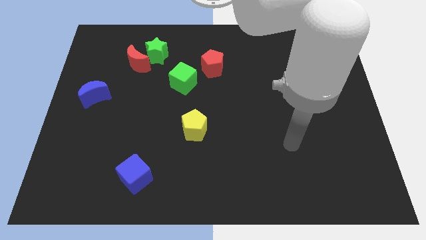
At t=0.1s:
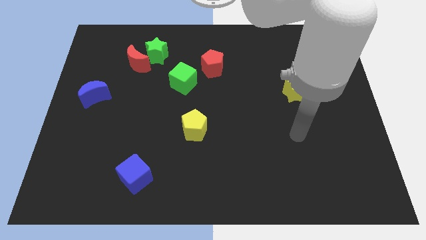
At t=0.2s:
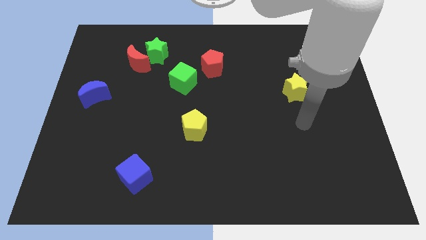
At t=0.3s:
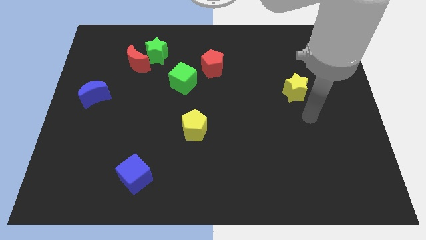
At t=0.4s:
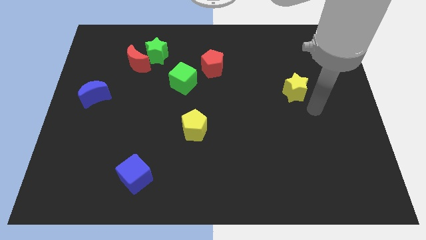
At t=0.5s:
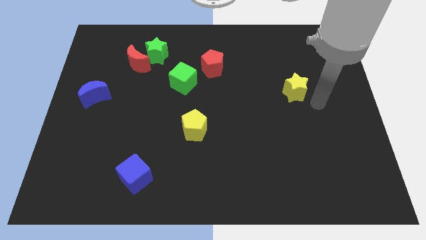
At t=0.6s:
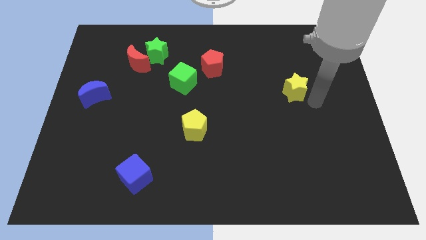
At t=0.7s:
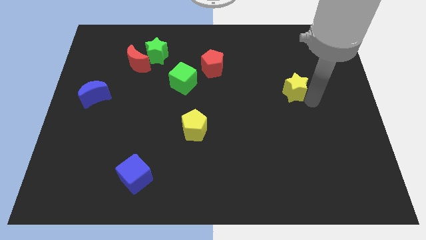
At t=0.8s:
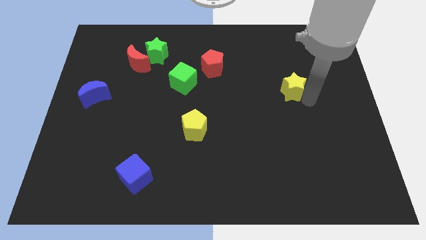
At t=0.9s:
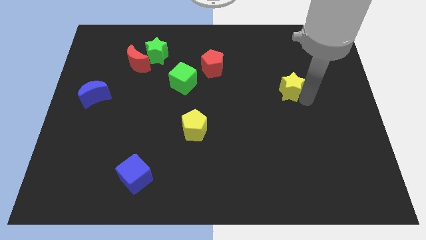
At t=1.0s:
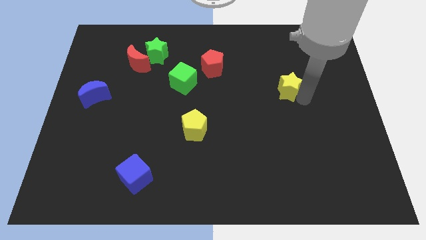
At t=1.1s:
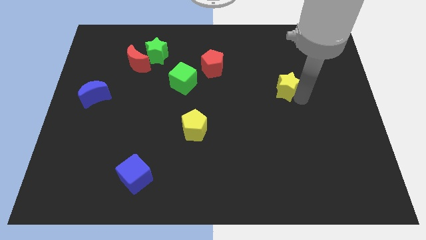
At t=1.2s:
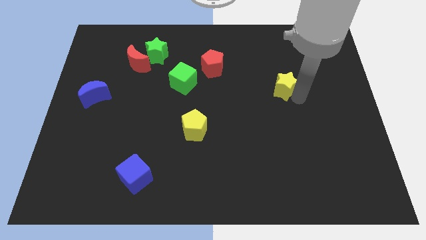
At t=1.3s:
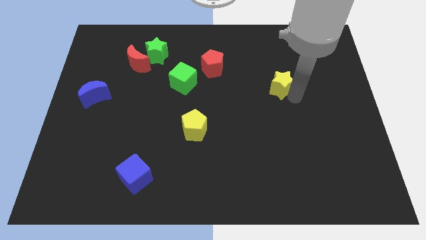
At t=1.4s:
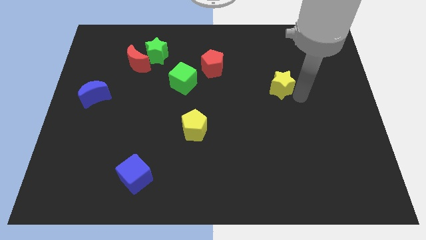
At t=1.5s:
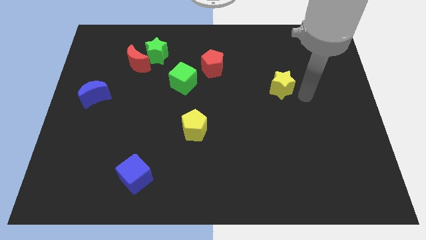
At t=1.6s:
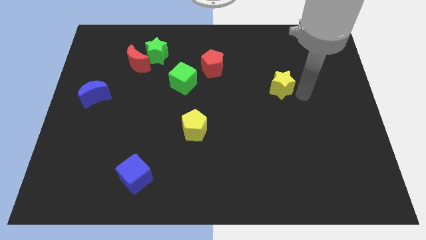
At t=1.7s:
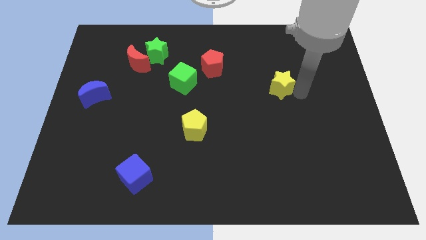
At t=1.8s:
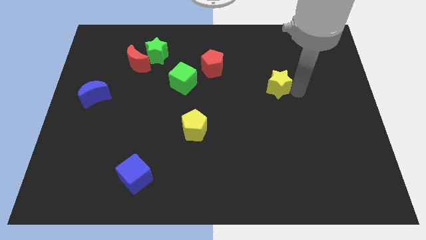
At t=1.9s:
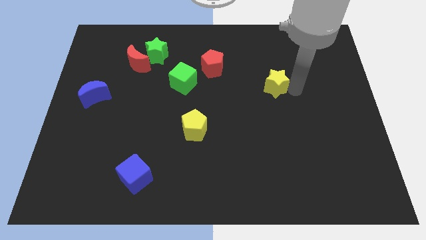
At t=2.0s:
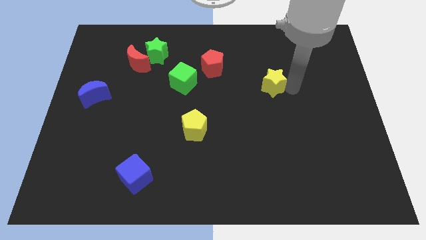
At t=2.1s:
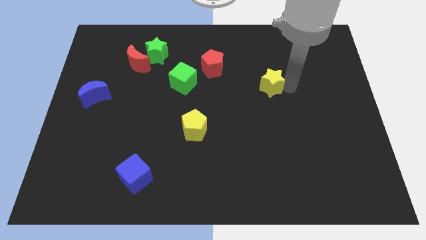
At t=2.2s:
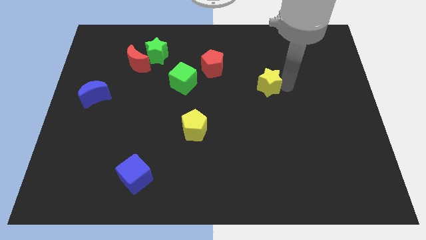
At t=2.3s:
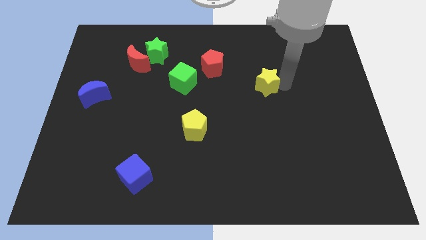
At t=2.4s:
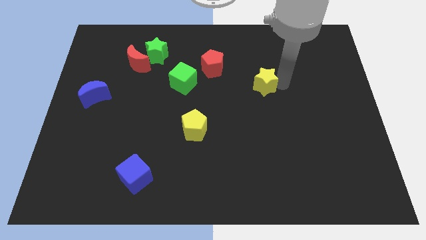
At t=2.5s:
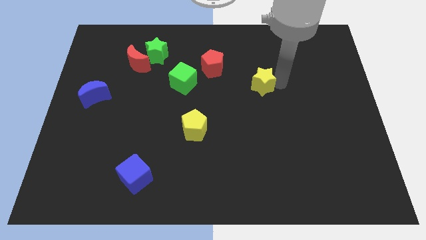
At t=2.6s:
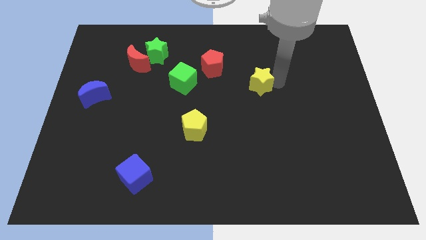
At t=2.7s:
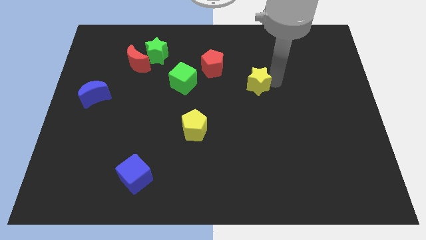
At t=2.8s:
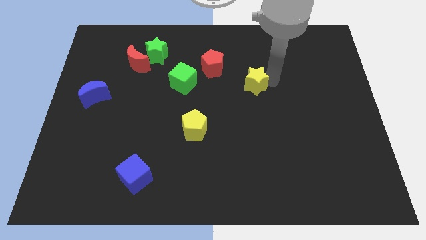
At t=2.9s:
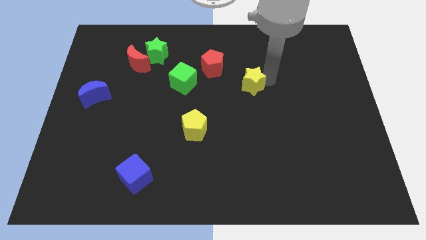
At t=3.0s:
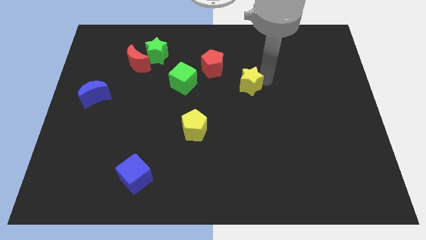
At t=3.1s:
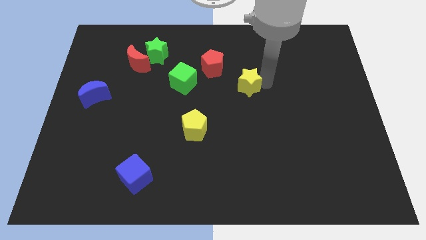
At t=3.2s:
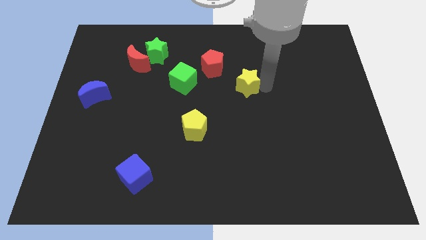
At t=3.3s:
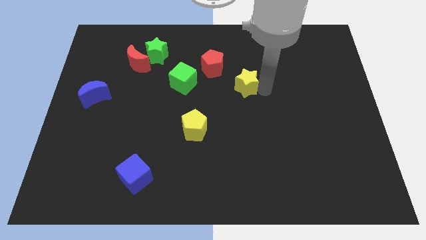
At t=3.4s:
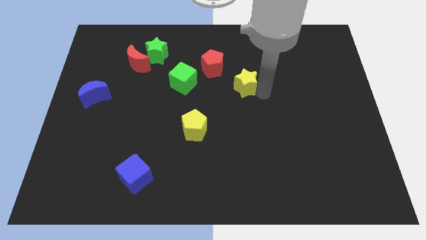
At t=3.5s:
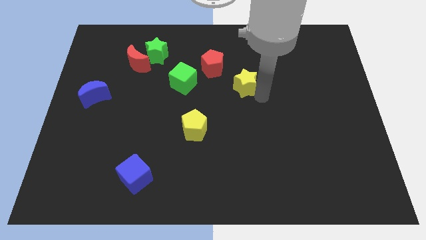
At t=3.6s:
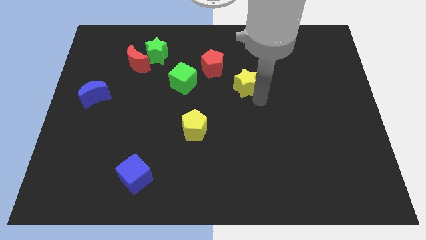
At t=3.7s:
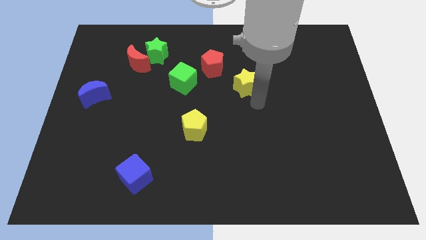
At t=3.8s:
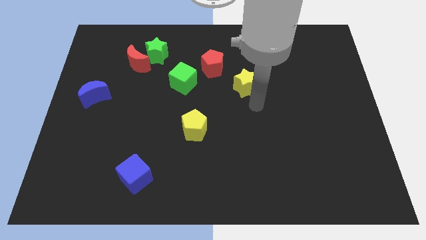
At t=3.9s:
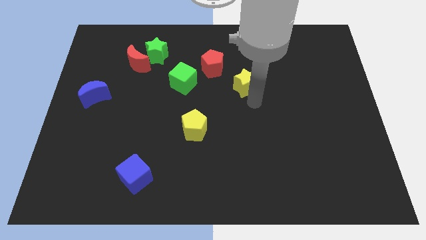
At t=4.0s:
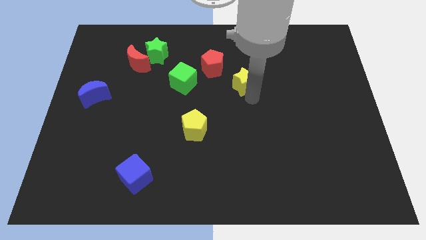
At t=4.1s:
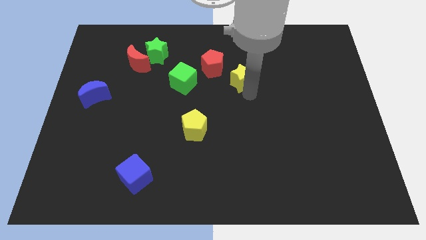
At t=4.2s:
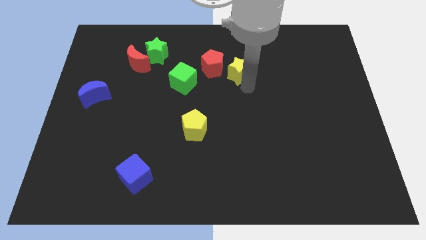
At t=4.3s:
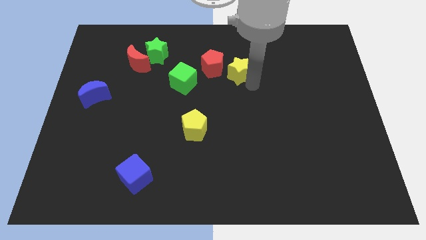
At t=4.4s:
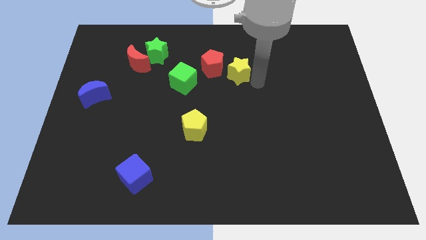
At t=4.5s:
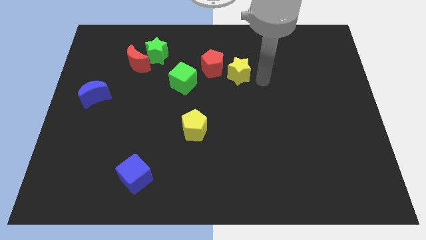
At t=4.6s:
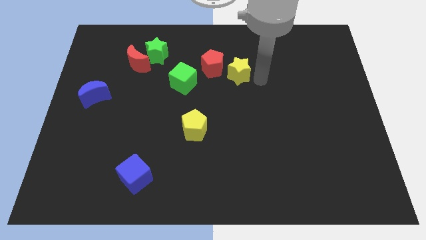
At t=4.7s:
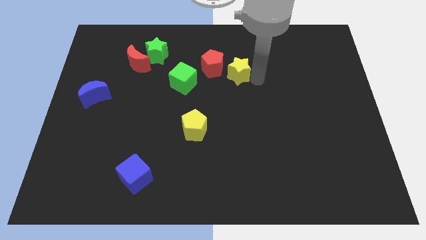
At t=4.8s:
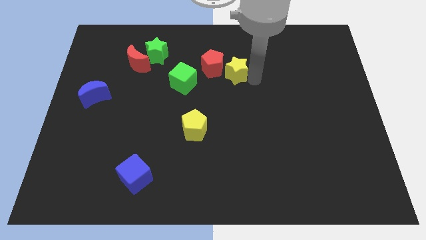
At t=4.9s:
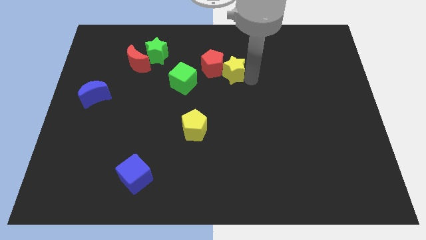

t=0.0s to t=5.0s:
put the yellow star next to the red pentagon

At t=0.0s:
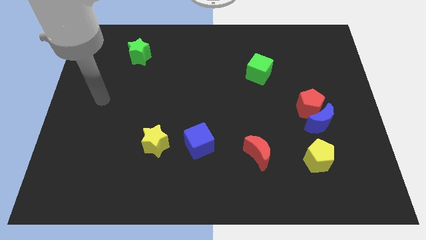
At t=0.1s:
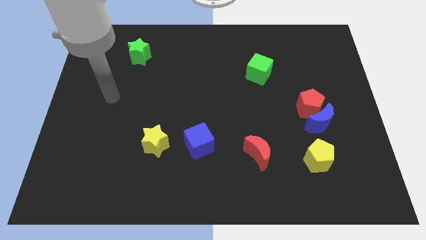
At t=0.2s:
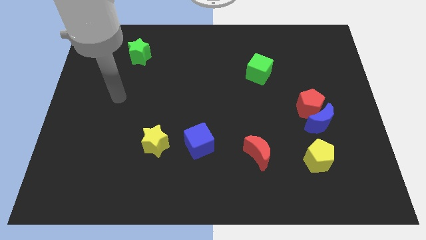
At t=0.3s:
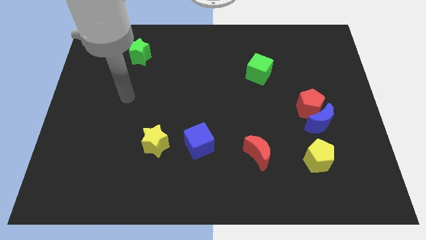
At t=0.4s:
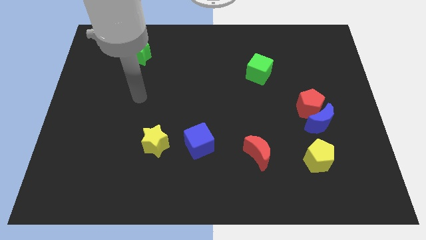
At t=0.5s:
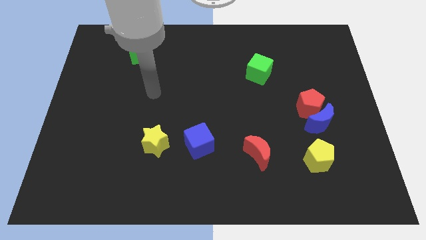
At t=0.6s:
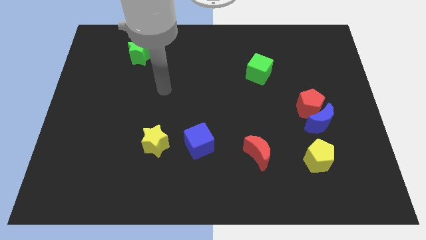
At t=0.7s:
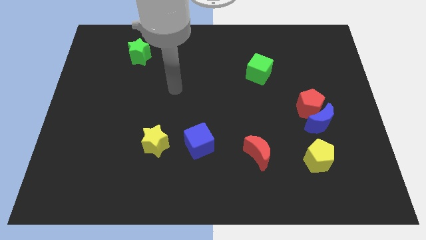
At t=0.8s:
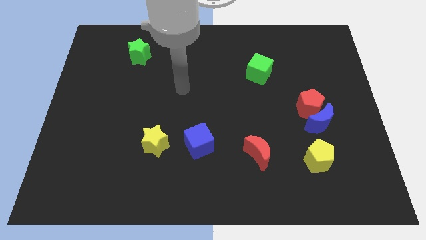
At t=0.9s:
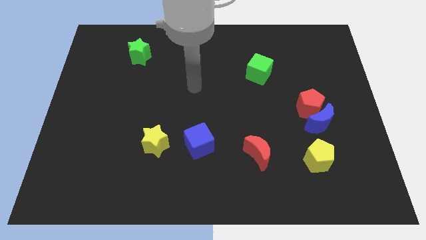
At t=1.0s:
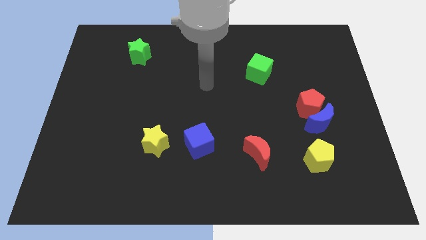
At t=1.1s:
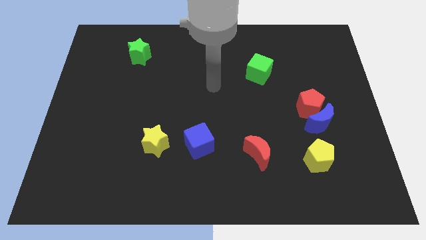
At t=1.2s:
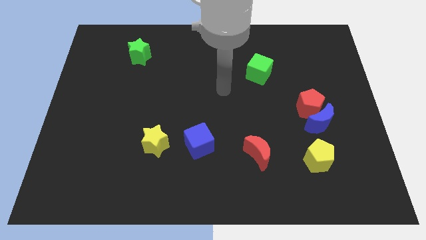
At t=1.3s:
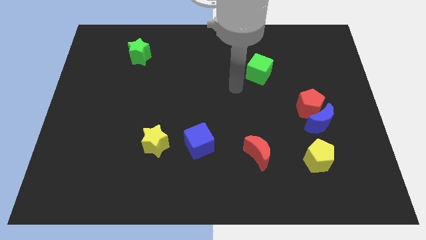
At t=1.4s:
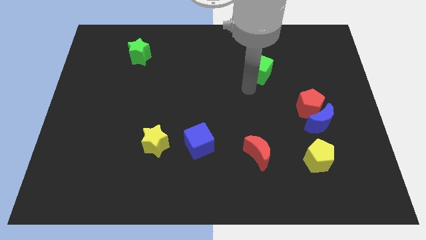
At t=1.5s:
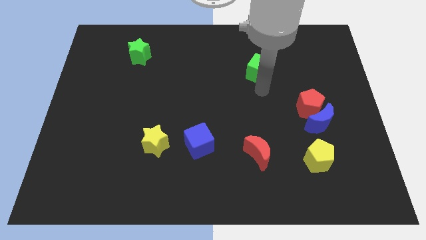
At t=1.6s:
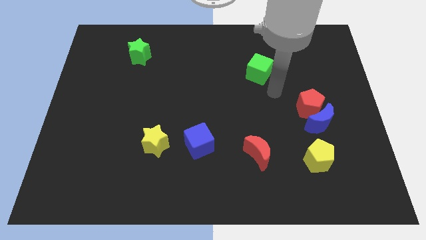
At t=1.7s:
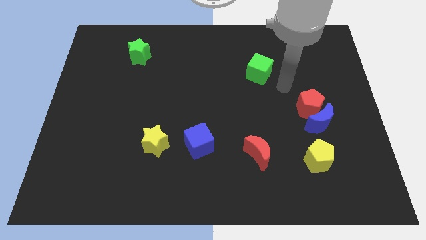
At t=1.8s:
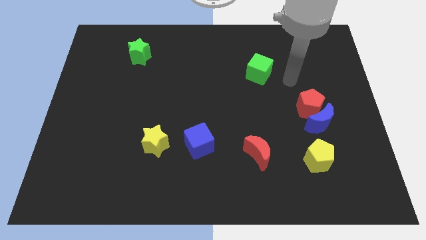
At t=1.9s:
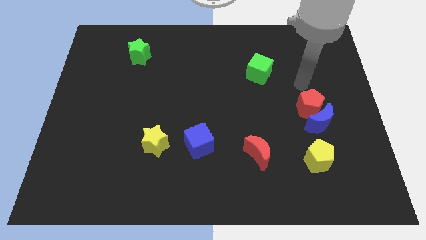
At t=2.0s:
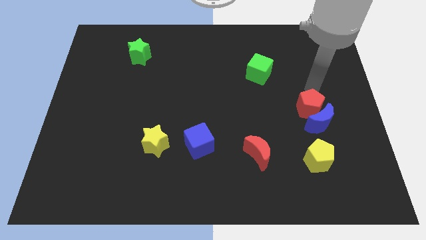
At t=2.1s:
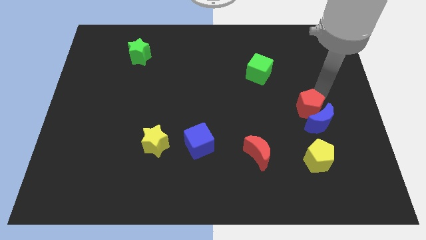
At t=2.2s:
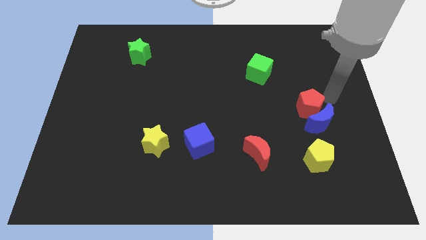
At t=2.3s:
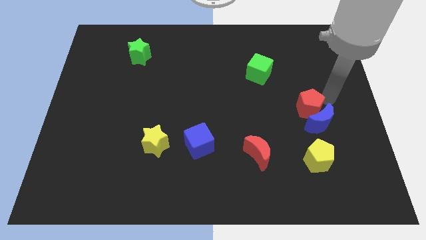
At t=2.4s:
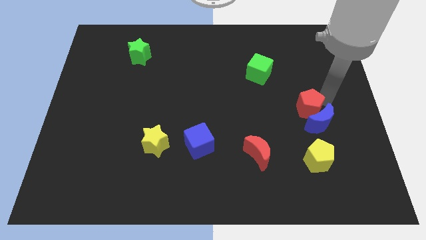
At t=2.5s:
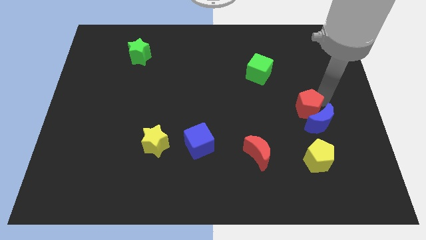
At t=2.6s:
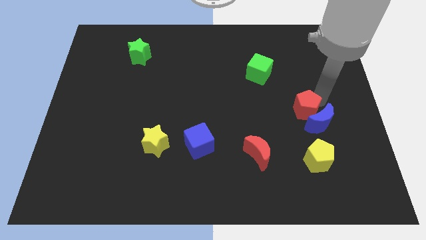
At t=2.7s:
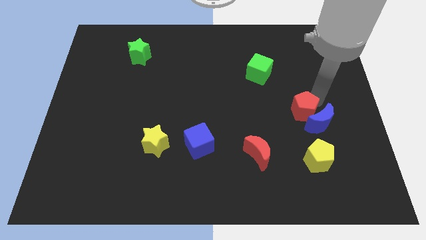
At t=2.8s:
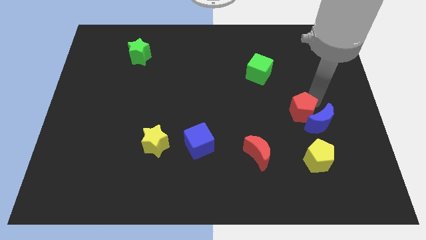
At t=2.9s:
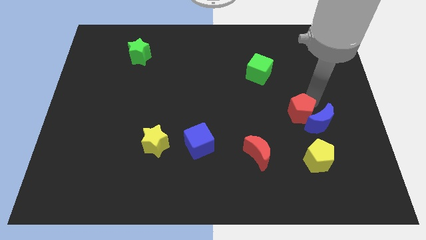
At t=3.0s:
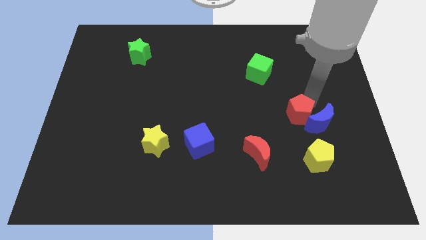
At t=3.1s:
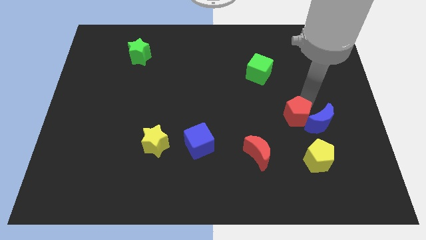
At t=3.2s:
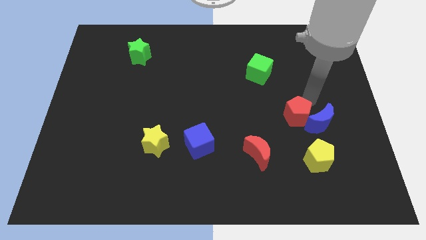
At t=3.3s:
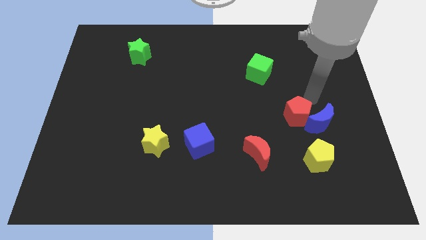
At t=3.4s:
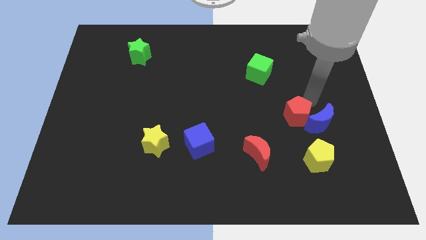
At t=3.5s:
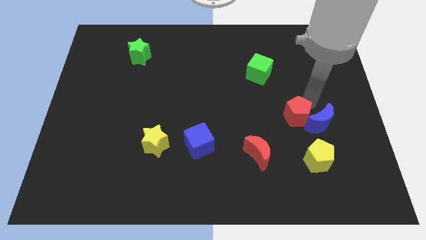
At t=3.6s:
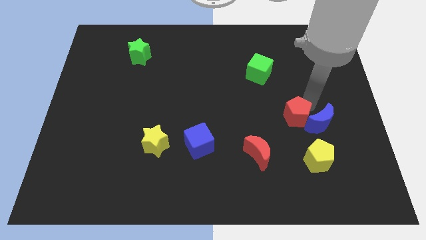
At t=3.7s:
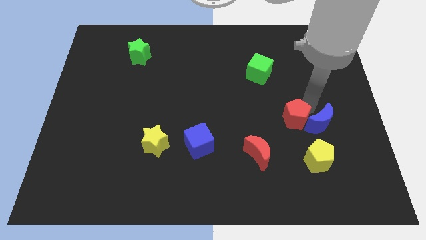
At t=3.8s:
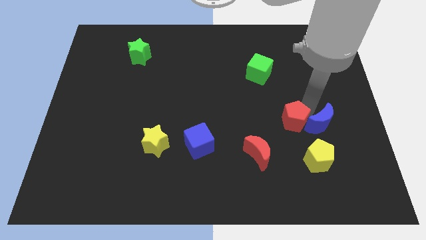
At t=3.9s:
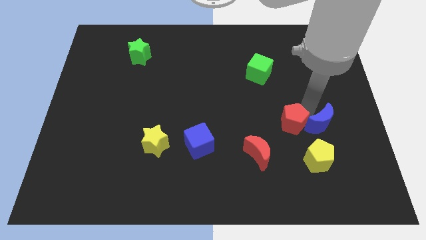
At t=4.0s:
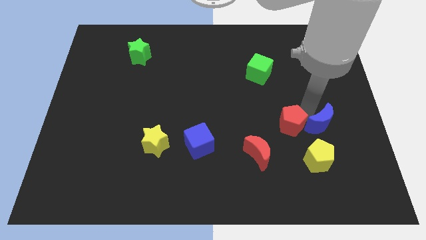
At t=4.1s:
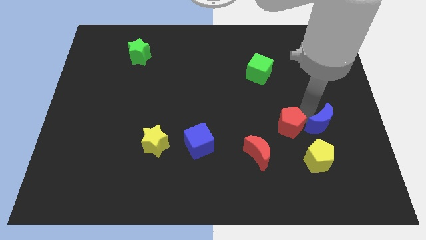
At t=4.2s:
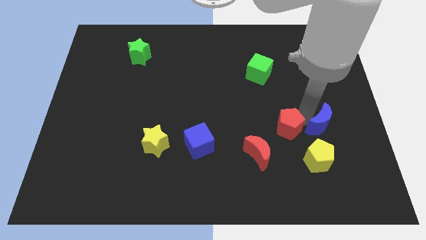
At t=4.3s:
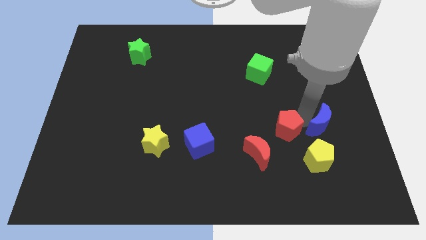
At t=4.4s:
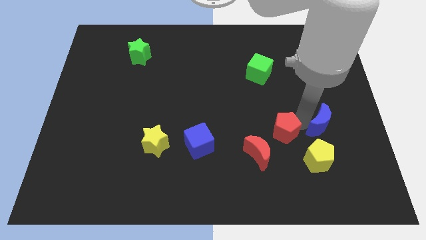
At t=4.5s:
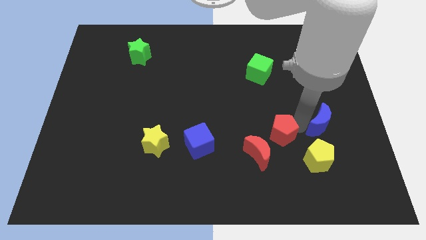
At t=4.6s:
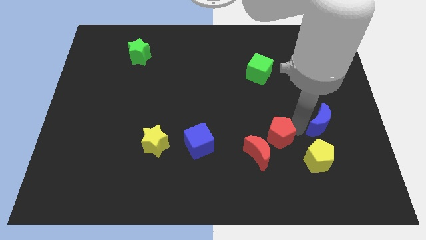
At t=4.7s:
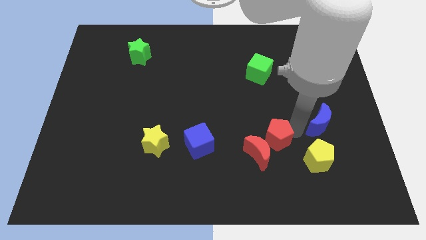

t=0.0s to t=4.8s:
move the red pentagon to the red moon
